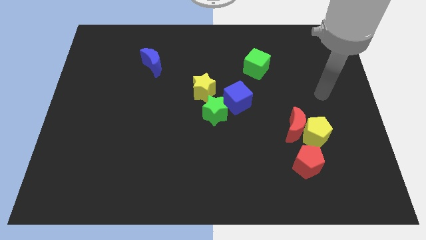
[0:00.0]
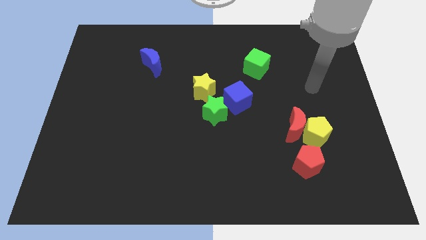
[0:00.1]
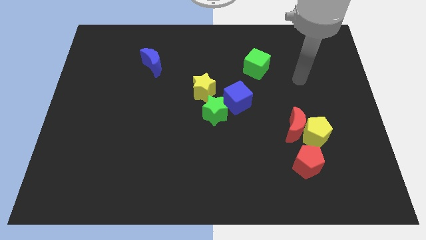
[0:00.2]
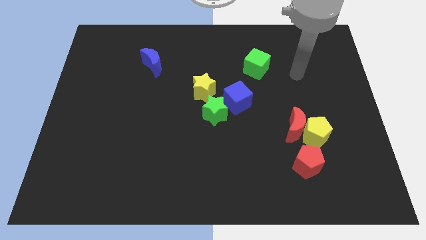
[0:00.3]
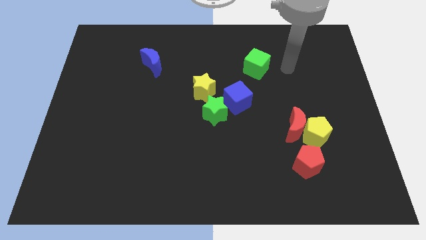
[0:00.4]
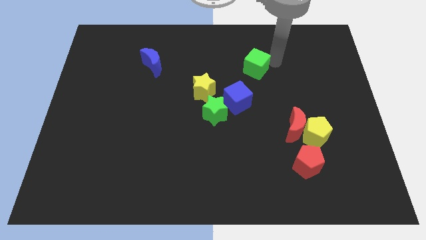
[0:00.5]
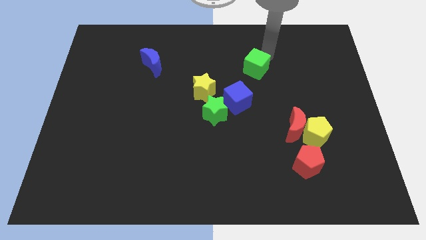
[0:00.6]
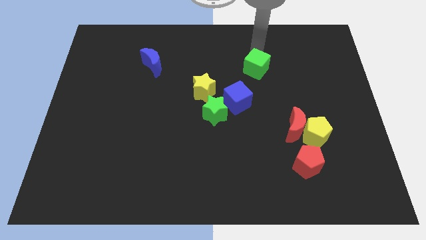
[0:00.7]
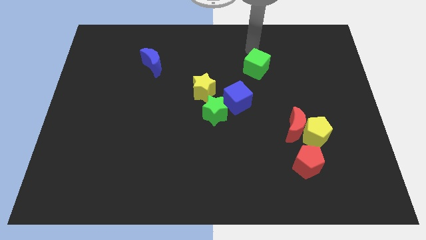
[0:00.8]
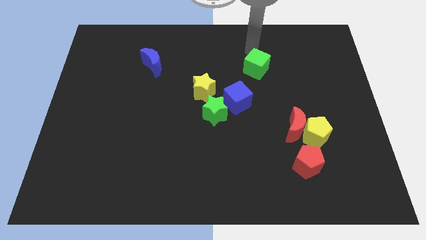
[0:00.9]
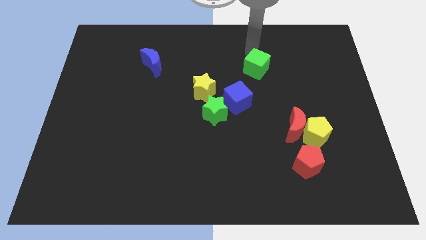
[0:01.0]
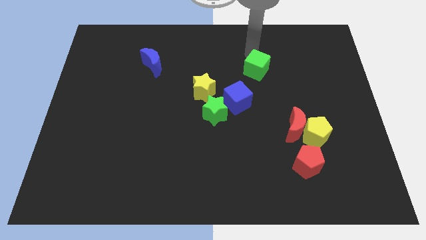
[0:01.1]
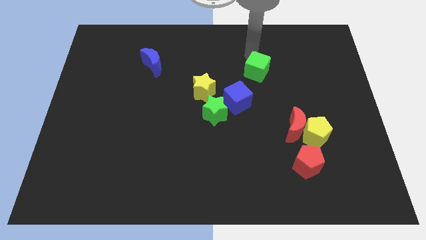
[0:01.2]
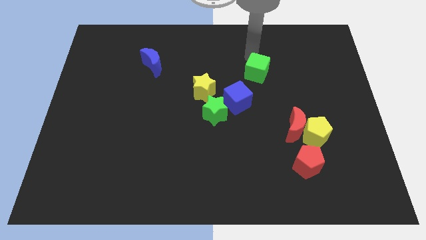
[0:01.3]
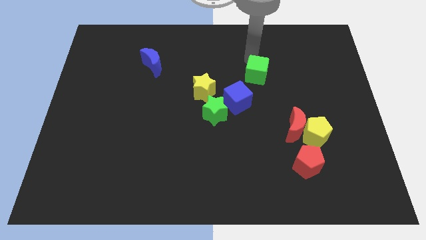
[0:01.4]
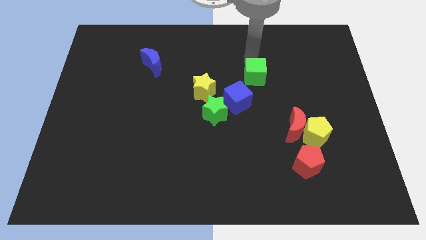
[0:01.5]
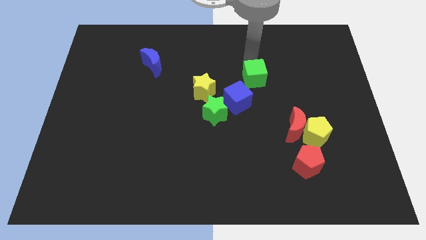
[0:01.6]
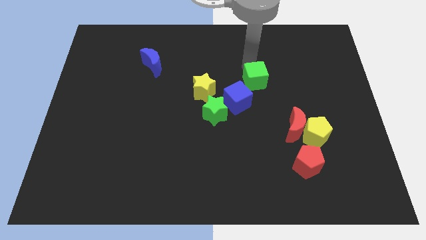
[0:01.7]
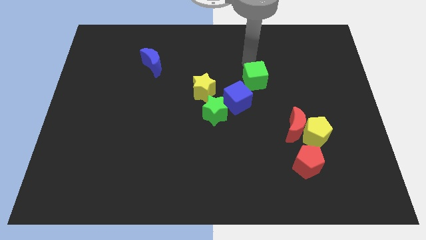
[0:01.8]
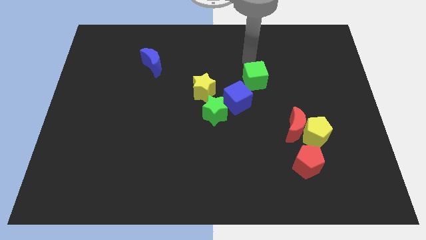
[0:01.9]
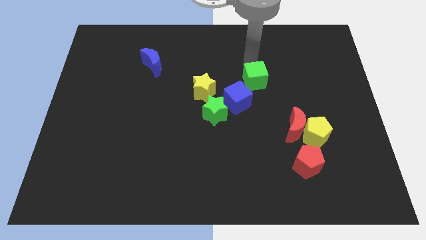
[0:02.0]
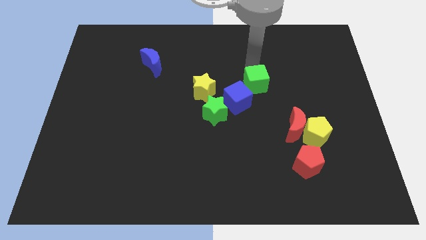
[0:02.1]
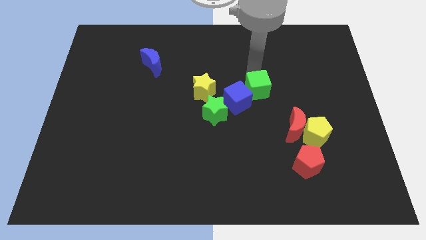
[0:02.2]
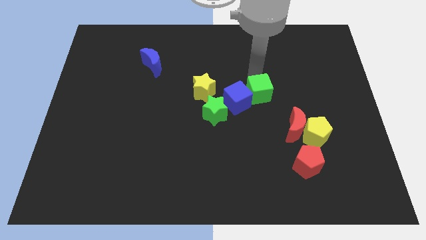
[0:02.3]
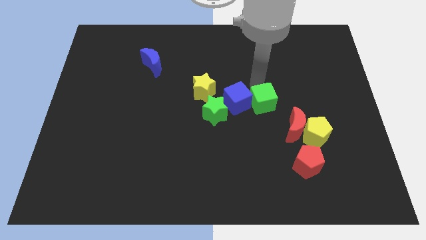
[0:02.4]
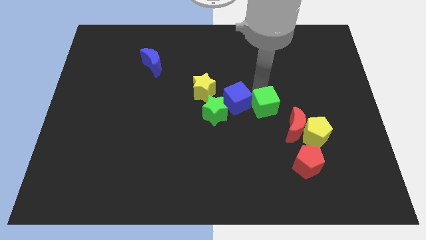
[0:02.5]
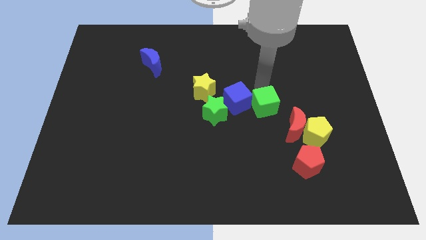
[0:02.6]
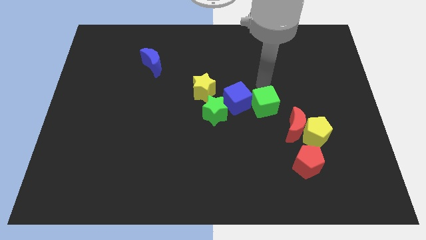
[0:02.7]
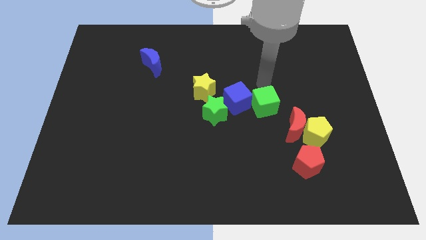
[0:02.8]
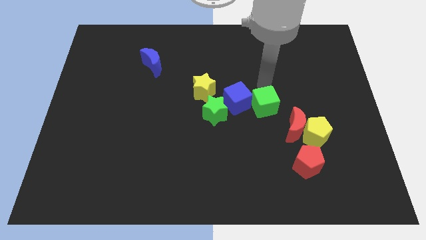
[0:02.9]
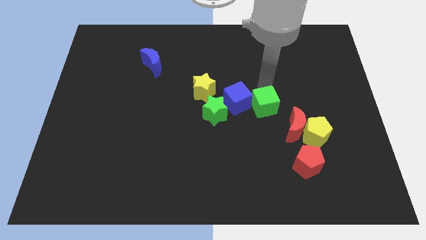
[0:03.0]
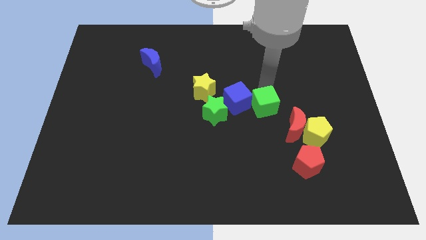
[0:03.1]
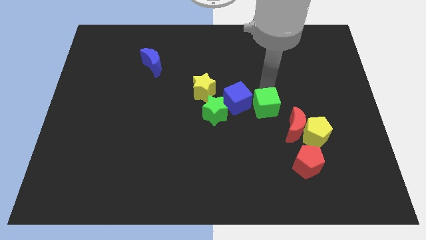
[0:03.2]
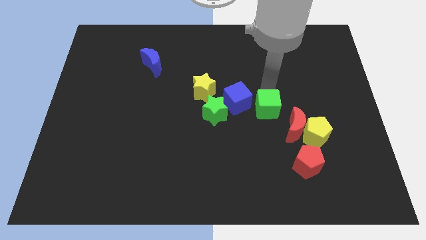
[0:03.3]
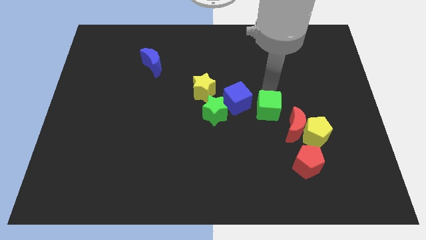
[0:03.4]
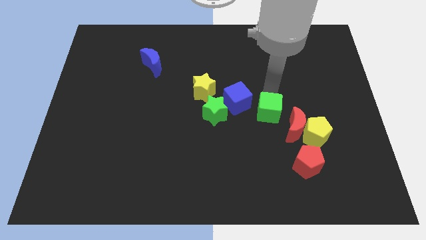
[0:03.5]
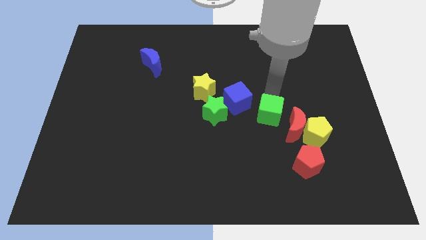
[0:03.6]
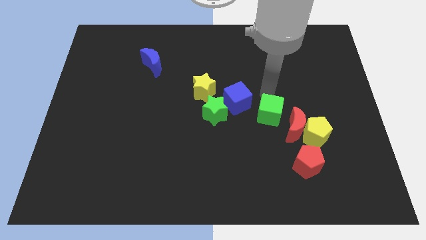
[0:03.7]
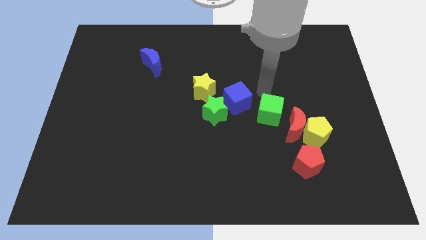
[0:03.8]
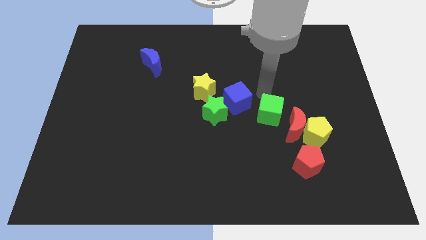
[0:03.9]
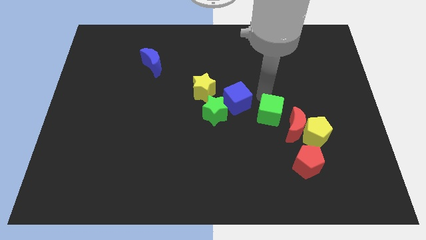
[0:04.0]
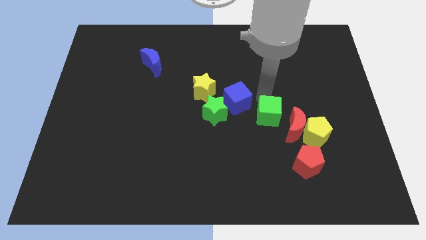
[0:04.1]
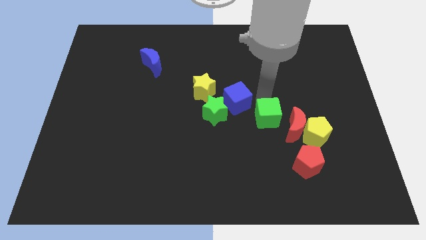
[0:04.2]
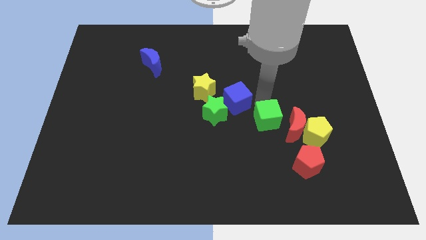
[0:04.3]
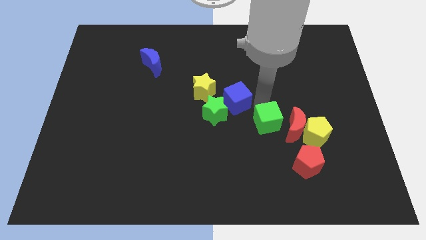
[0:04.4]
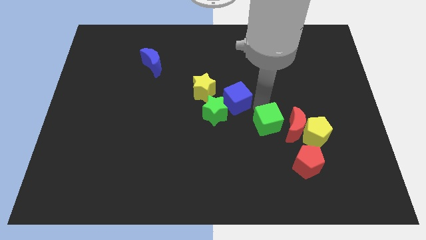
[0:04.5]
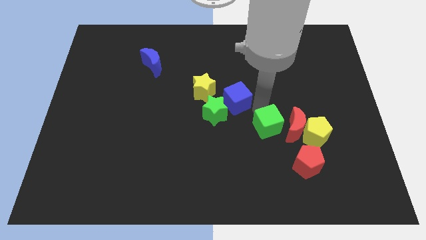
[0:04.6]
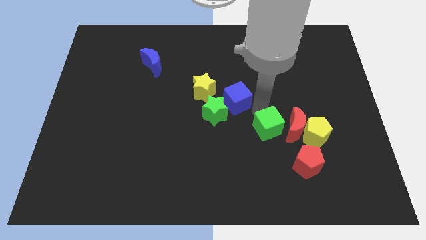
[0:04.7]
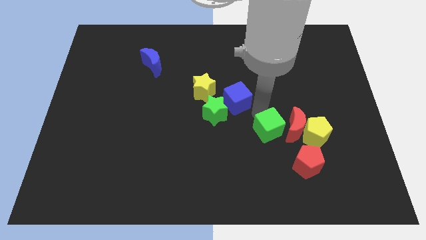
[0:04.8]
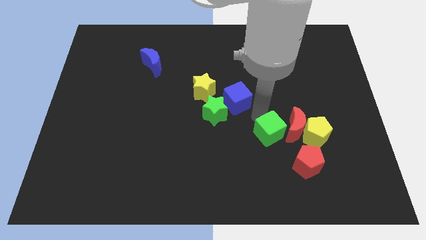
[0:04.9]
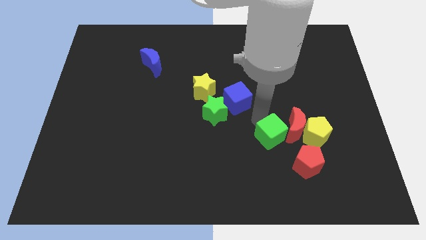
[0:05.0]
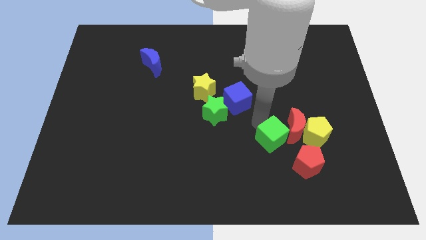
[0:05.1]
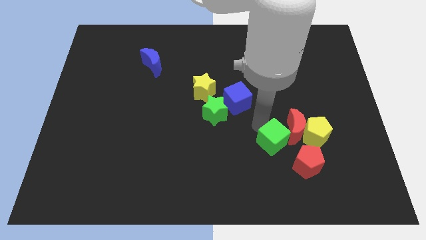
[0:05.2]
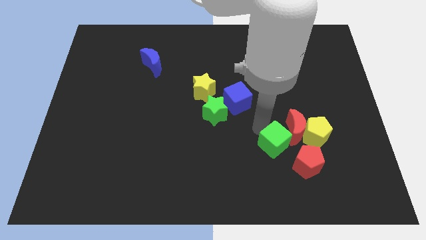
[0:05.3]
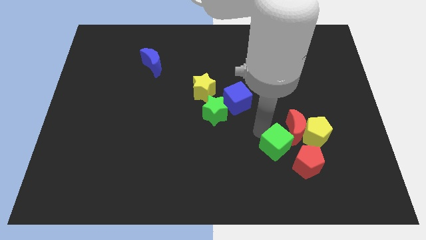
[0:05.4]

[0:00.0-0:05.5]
push the green cube to the bottom left side of the yellow pentagon

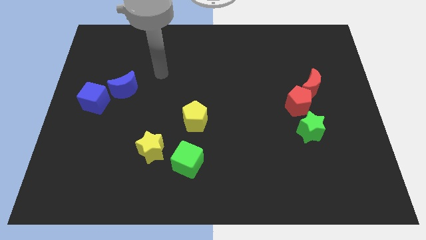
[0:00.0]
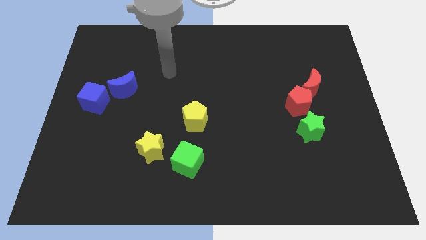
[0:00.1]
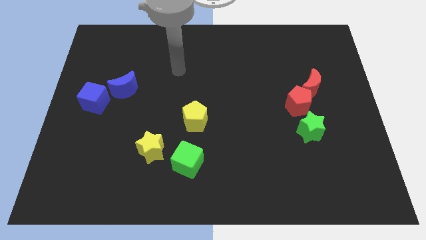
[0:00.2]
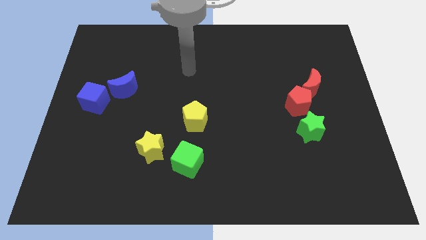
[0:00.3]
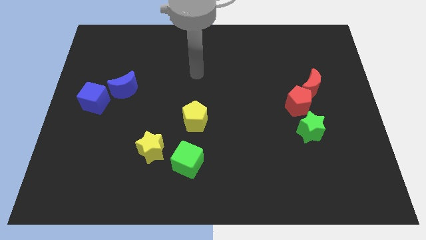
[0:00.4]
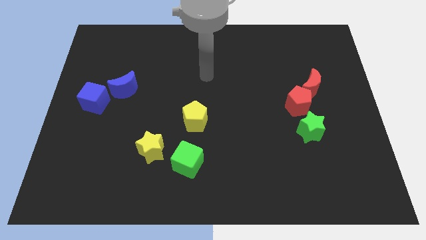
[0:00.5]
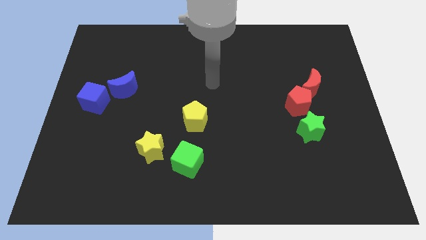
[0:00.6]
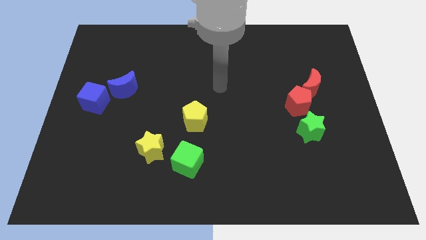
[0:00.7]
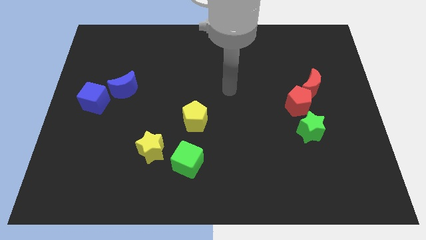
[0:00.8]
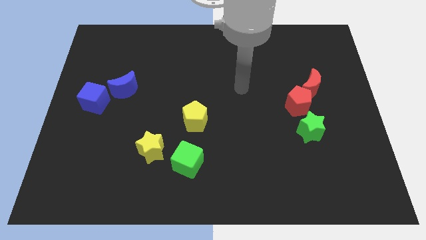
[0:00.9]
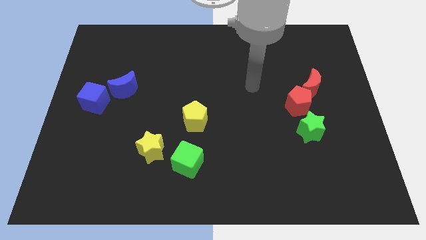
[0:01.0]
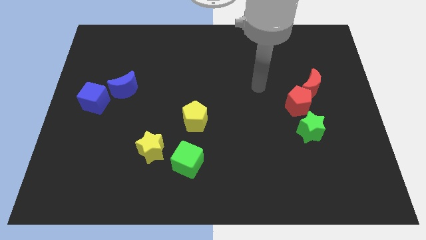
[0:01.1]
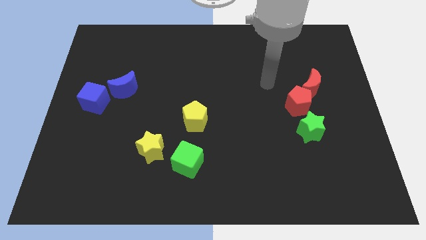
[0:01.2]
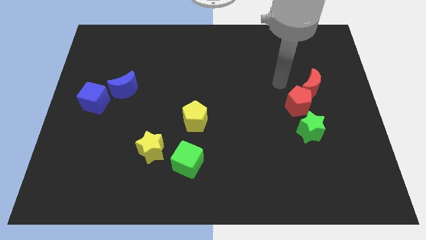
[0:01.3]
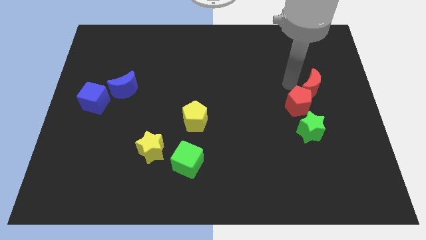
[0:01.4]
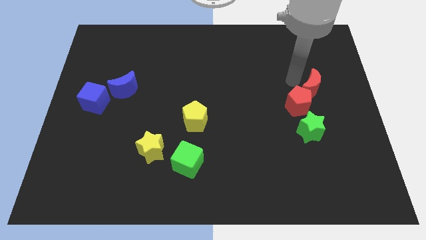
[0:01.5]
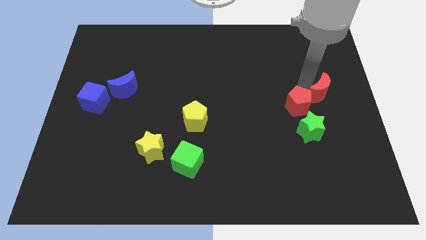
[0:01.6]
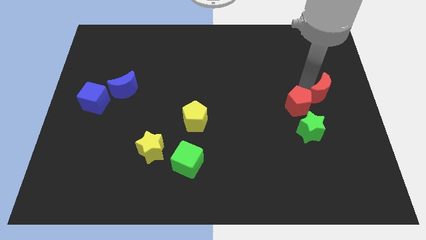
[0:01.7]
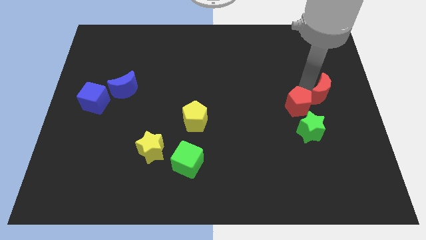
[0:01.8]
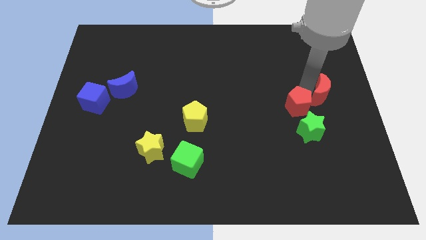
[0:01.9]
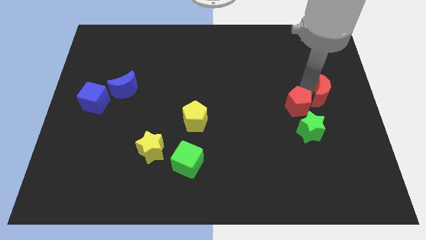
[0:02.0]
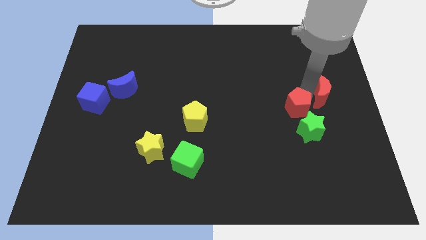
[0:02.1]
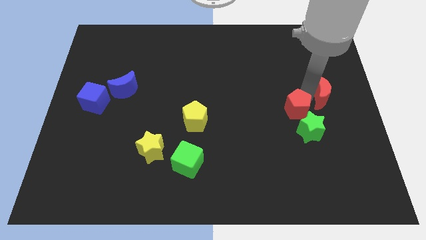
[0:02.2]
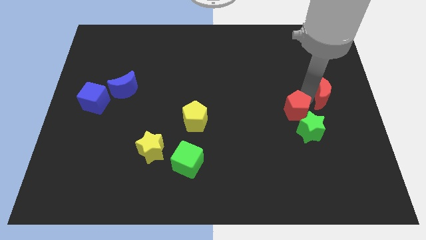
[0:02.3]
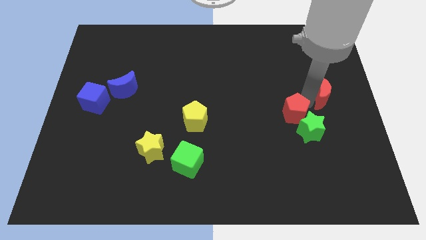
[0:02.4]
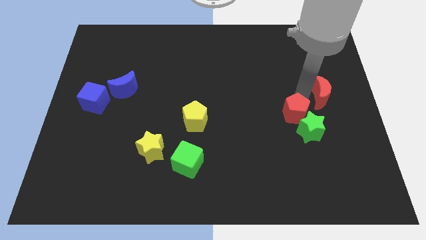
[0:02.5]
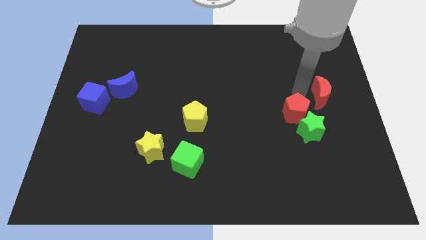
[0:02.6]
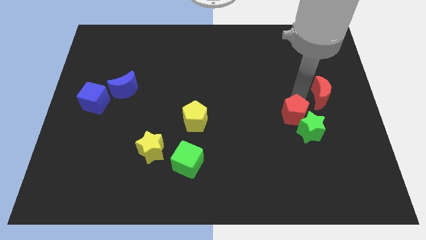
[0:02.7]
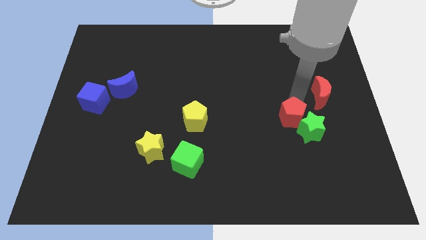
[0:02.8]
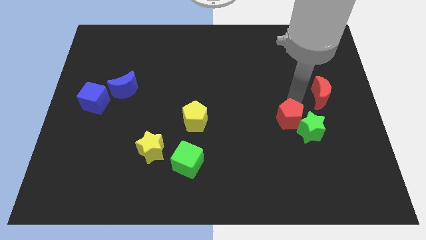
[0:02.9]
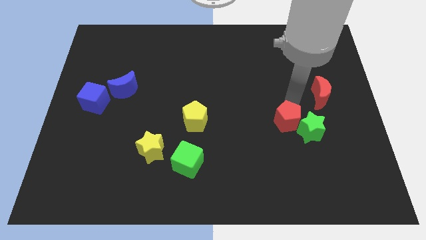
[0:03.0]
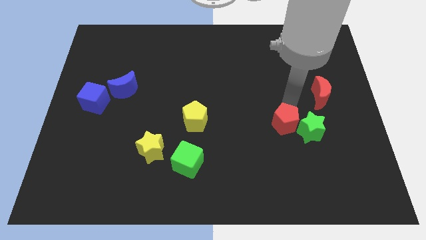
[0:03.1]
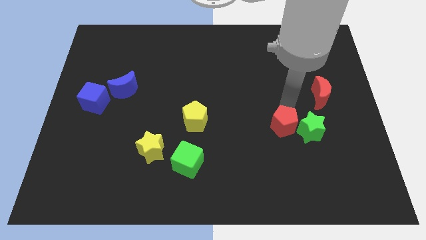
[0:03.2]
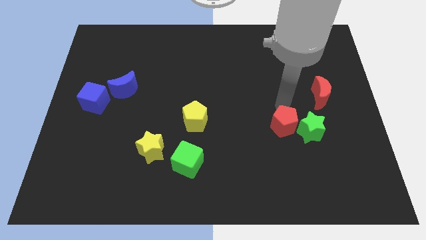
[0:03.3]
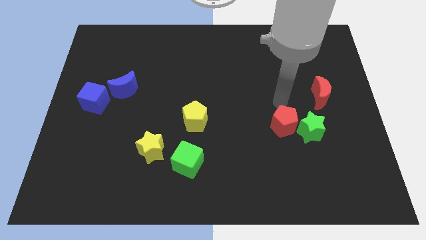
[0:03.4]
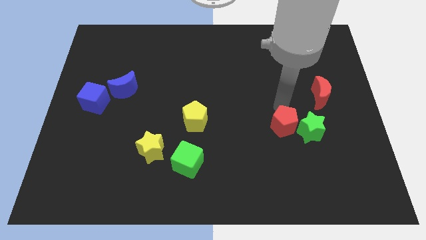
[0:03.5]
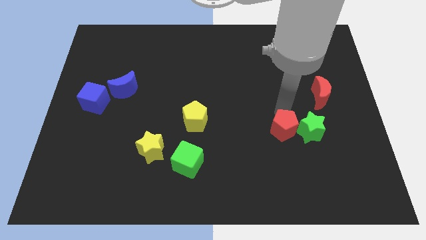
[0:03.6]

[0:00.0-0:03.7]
put the red pentagon to the bottom left of the green star
